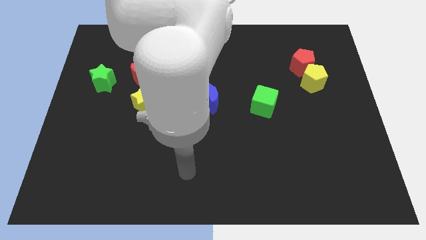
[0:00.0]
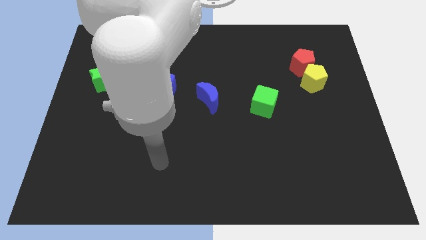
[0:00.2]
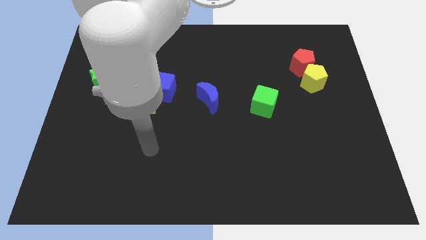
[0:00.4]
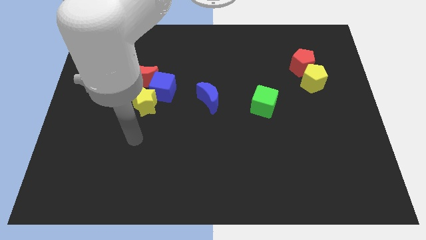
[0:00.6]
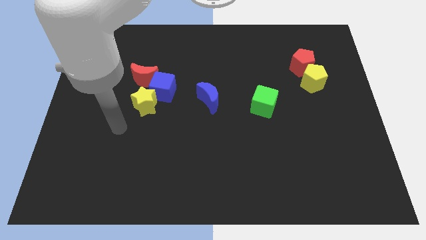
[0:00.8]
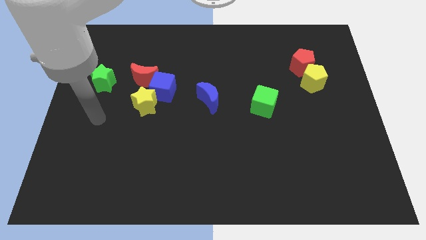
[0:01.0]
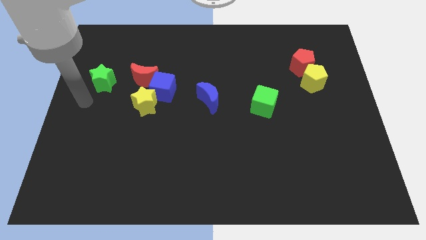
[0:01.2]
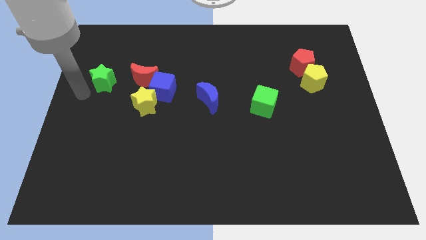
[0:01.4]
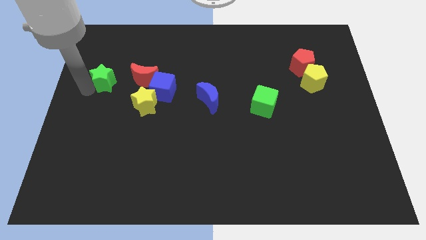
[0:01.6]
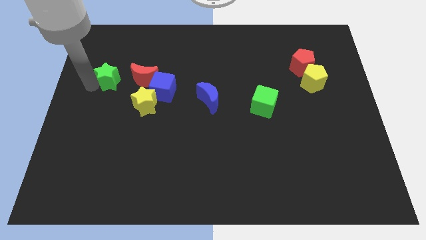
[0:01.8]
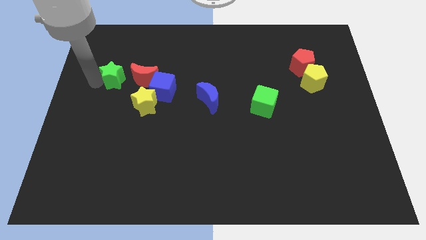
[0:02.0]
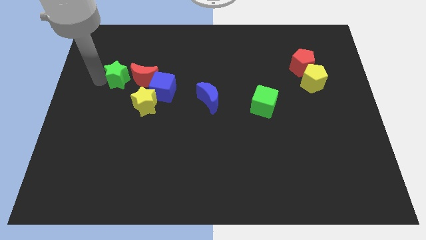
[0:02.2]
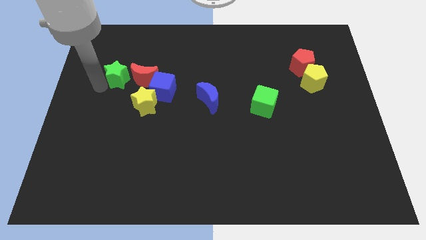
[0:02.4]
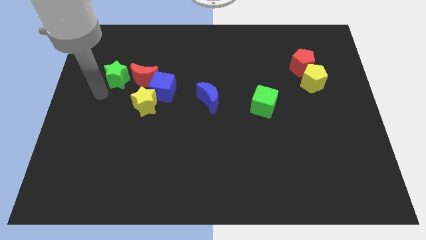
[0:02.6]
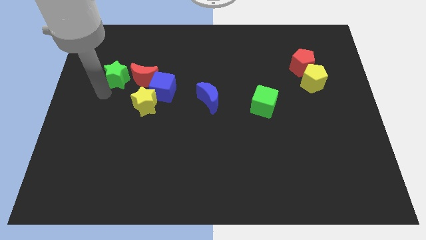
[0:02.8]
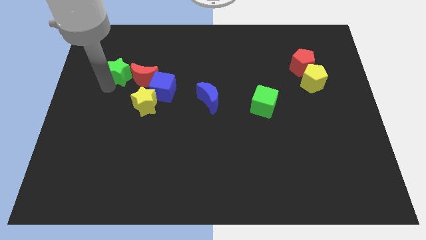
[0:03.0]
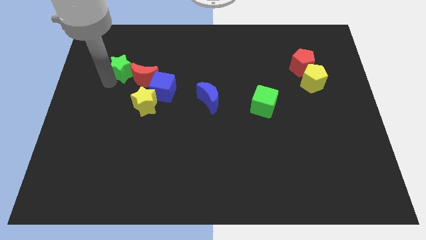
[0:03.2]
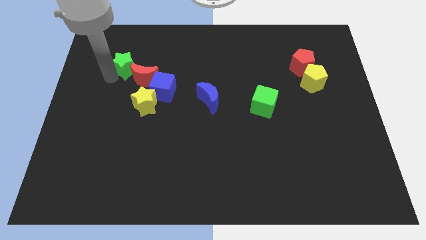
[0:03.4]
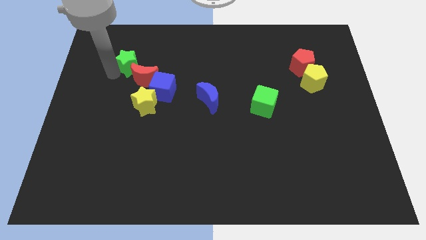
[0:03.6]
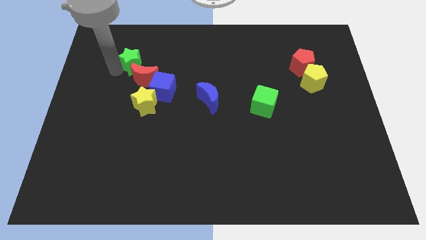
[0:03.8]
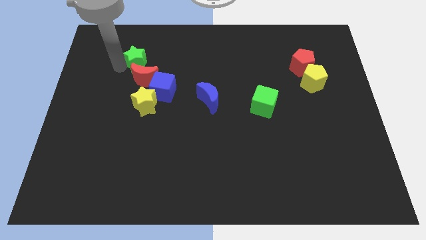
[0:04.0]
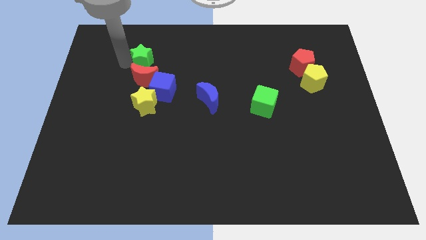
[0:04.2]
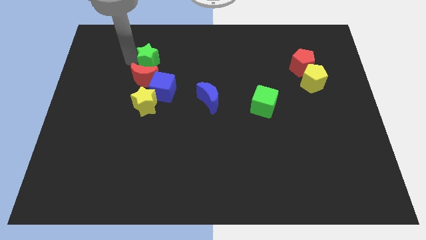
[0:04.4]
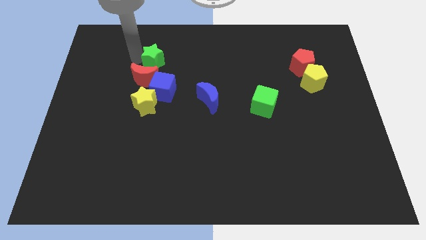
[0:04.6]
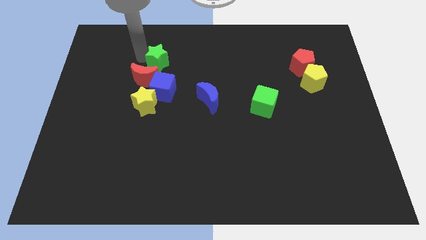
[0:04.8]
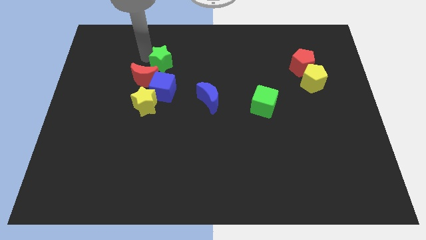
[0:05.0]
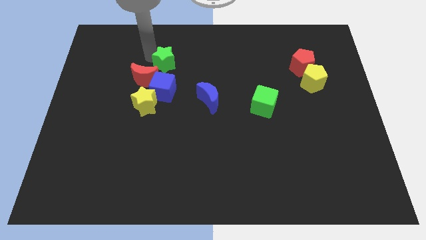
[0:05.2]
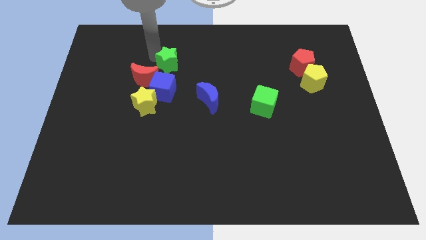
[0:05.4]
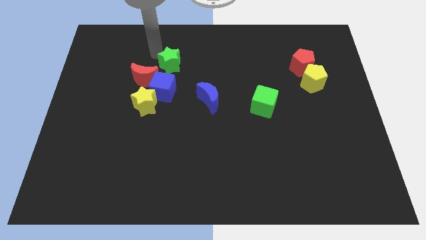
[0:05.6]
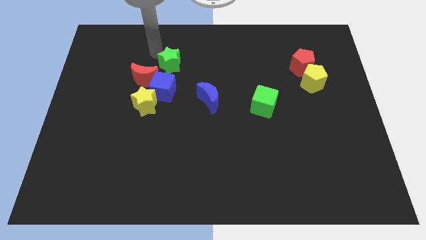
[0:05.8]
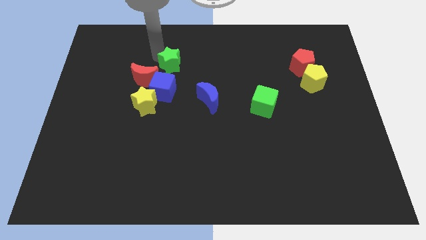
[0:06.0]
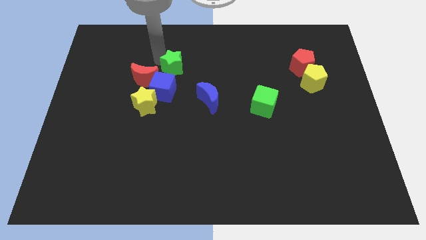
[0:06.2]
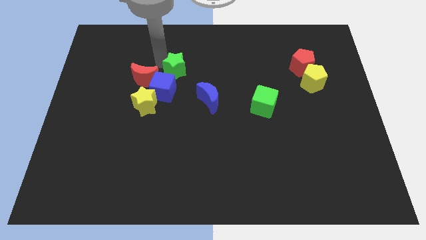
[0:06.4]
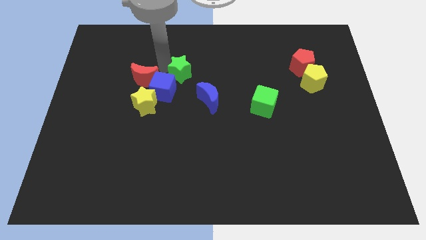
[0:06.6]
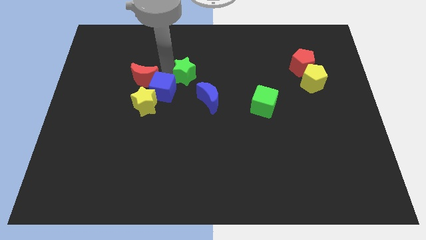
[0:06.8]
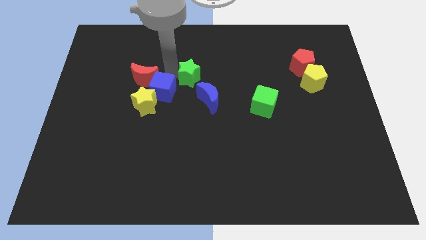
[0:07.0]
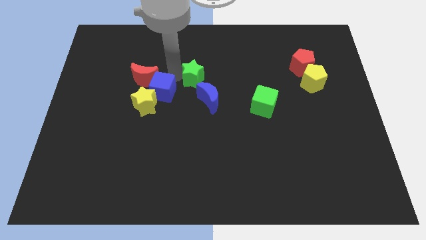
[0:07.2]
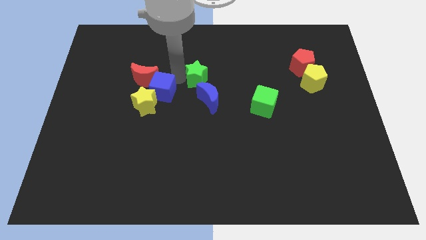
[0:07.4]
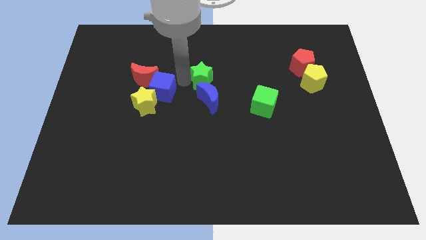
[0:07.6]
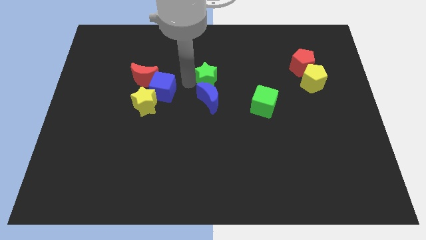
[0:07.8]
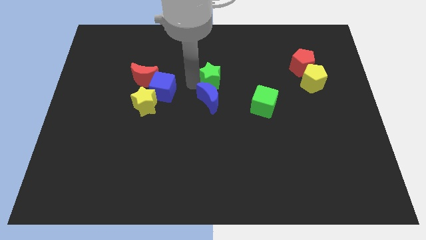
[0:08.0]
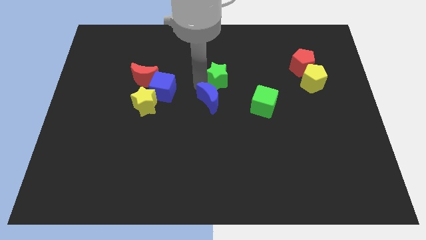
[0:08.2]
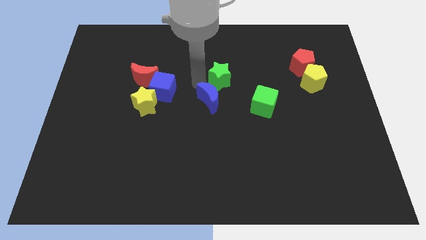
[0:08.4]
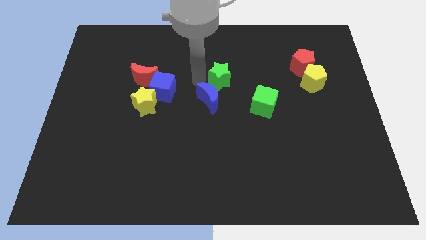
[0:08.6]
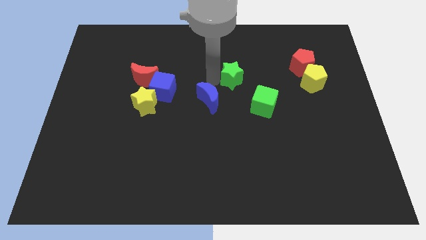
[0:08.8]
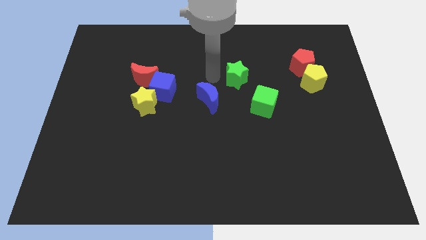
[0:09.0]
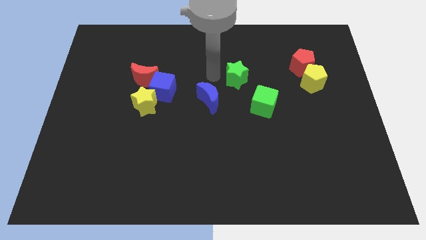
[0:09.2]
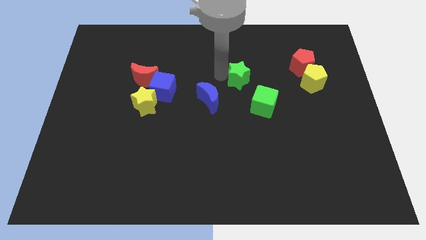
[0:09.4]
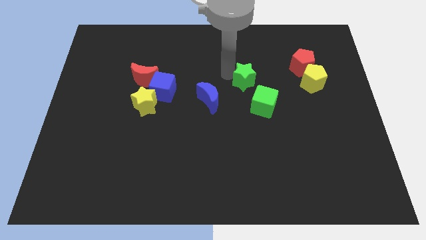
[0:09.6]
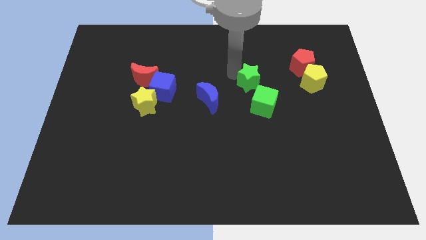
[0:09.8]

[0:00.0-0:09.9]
push the green star to the left of the yellow pentagon

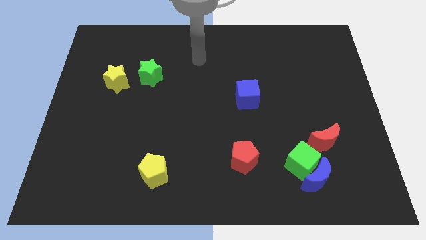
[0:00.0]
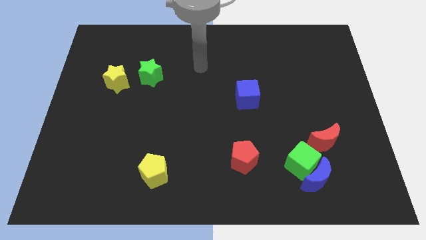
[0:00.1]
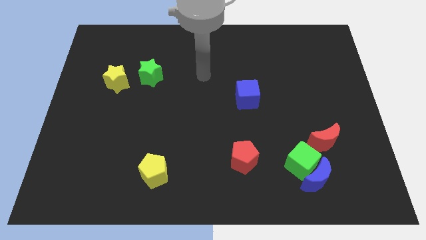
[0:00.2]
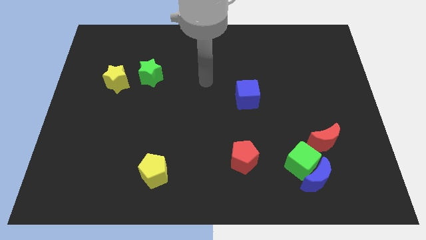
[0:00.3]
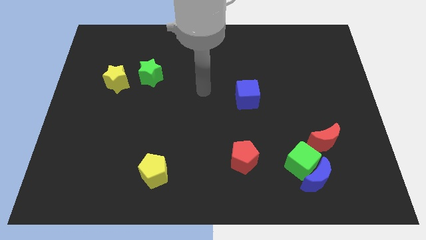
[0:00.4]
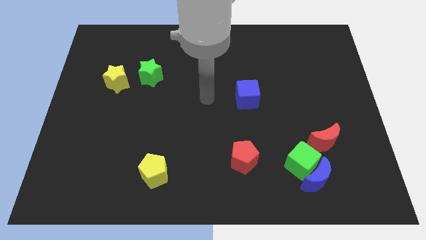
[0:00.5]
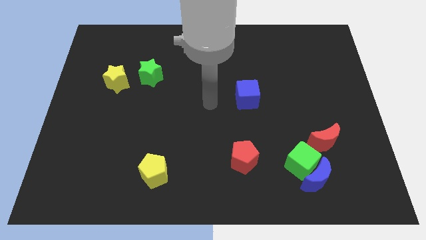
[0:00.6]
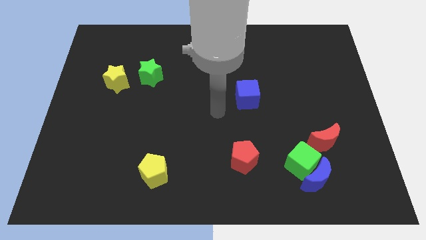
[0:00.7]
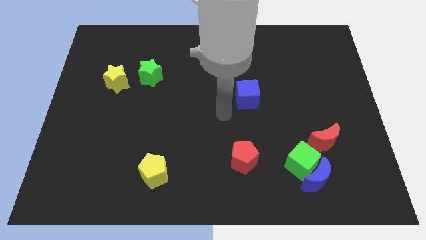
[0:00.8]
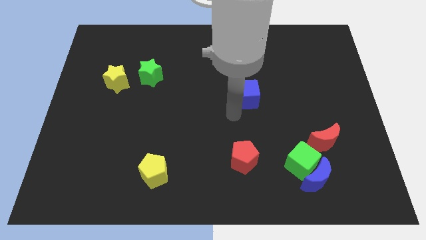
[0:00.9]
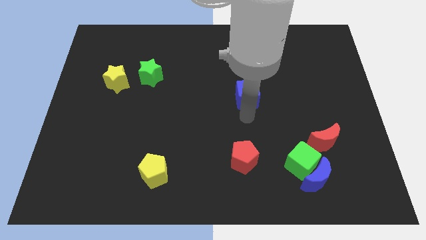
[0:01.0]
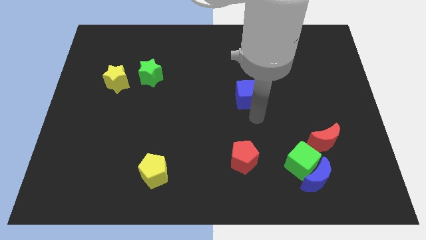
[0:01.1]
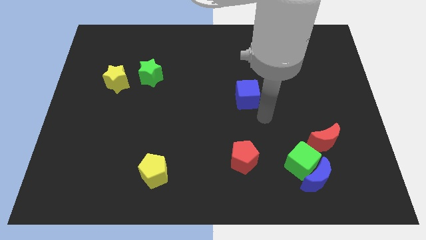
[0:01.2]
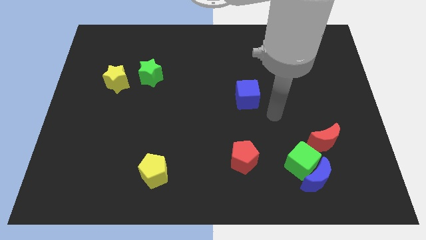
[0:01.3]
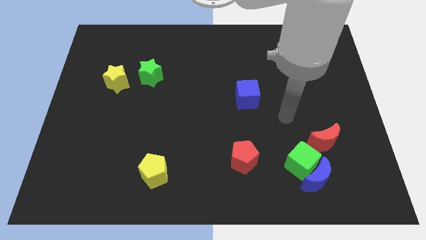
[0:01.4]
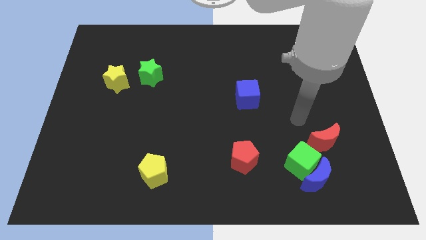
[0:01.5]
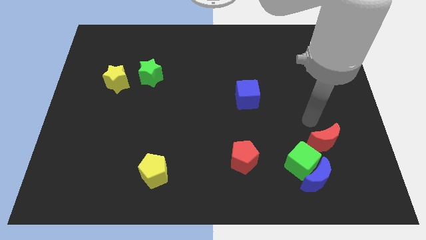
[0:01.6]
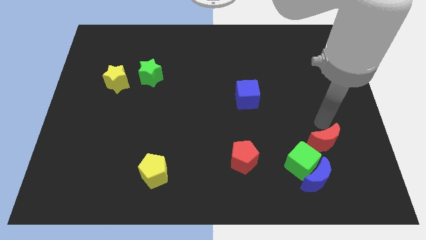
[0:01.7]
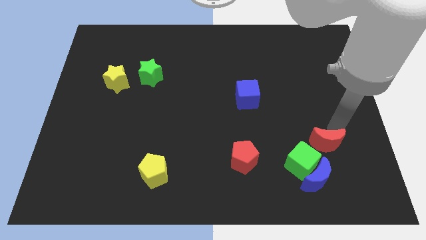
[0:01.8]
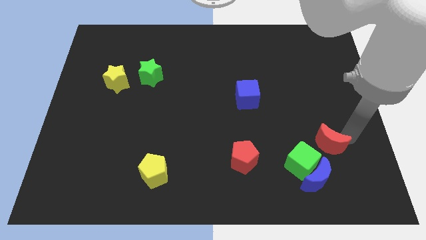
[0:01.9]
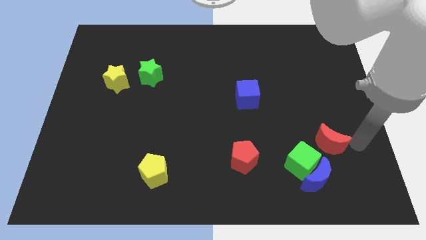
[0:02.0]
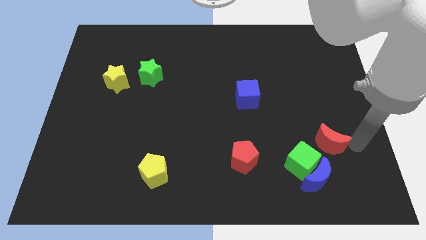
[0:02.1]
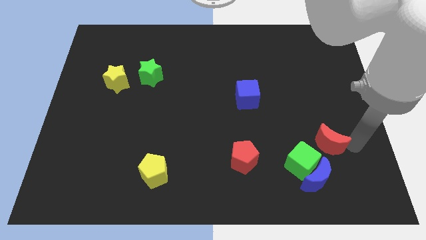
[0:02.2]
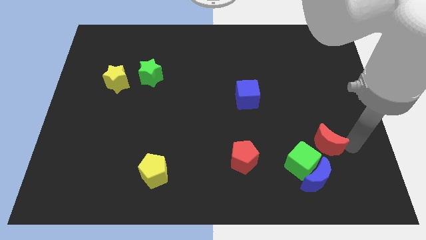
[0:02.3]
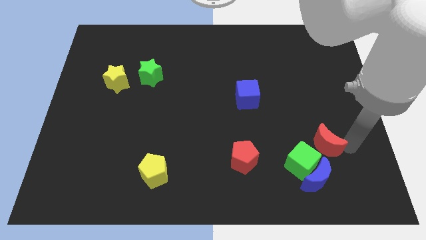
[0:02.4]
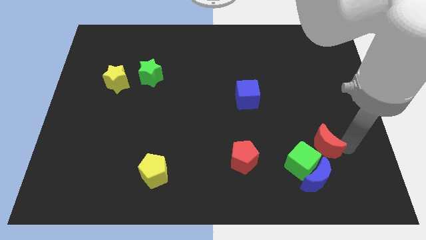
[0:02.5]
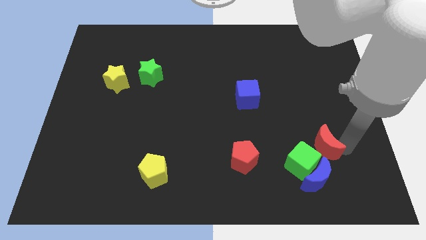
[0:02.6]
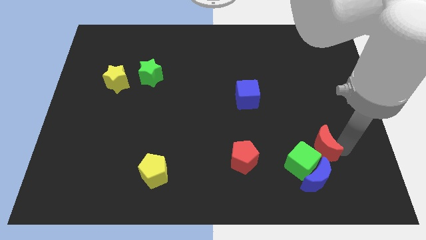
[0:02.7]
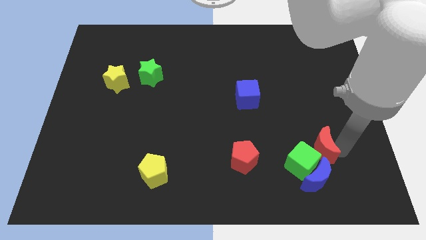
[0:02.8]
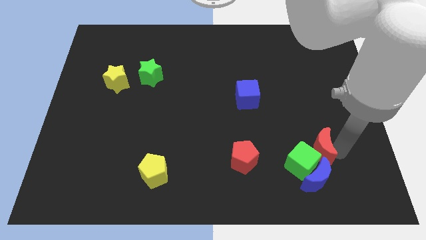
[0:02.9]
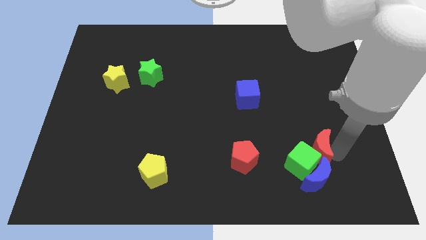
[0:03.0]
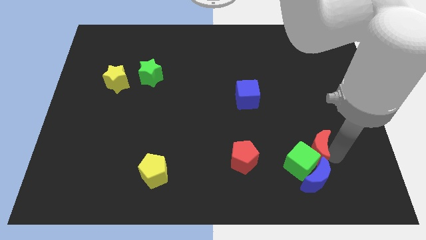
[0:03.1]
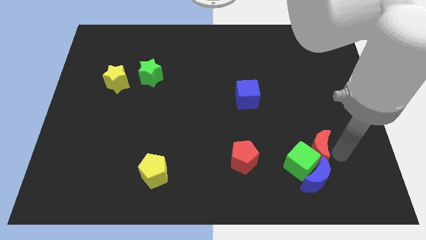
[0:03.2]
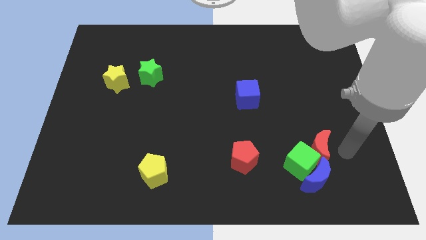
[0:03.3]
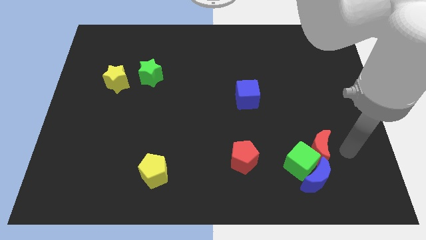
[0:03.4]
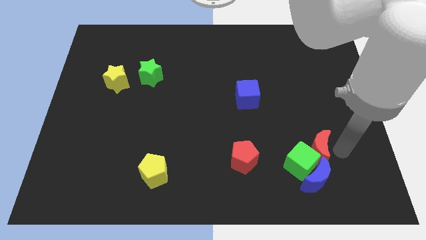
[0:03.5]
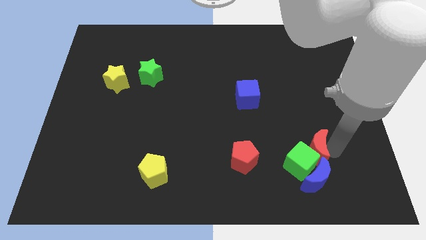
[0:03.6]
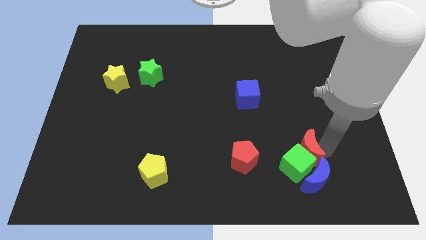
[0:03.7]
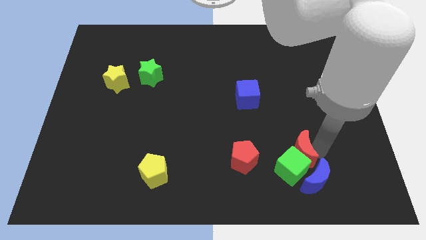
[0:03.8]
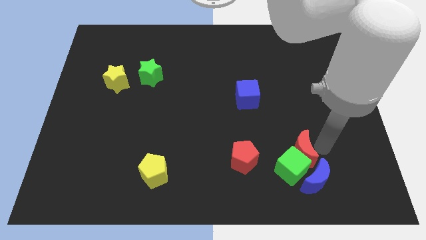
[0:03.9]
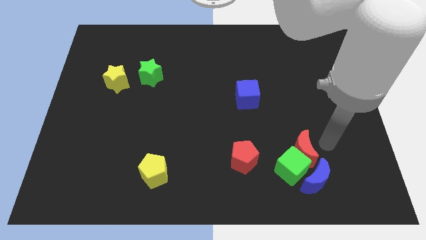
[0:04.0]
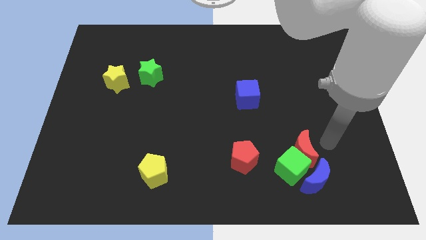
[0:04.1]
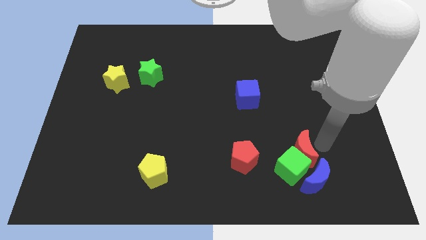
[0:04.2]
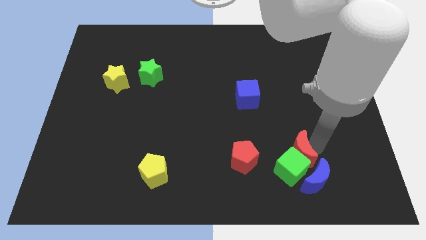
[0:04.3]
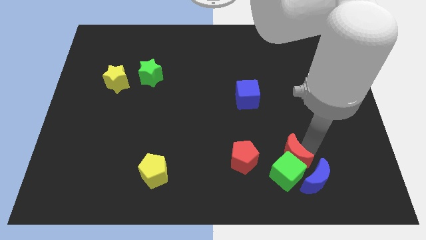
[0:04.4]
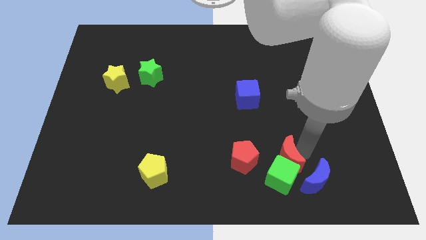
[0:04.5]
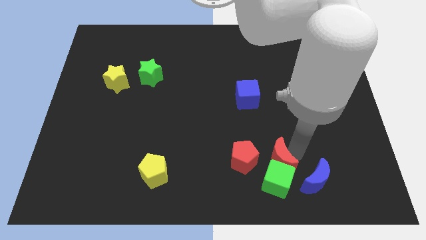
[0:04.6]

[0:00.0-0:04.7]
push the red moon to the left side of the blue moon
